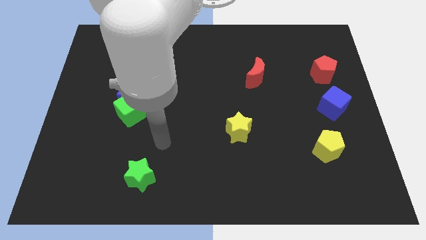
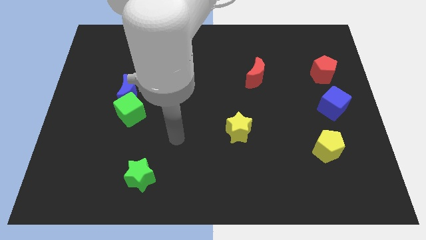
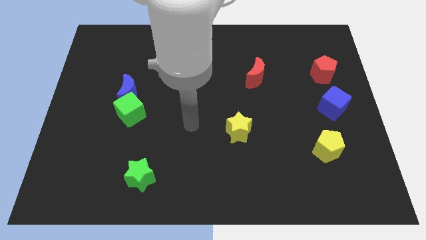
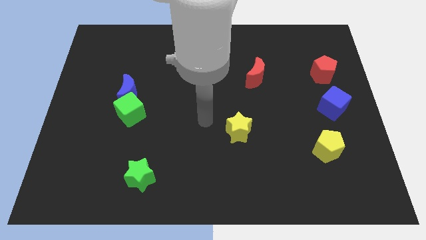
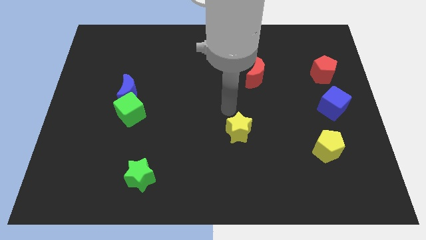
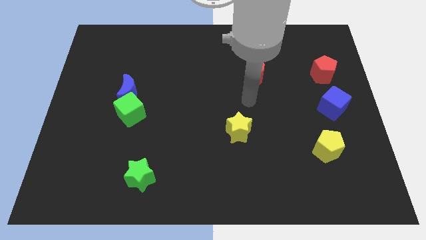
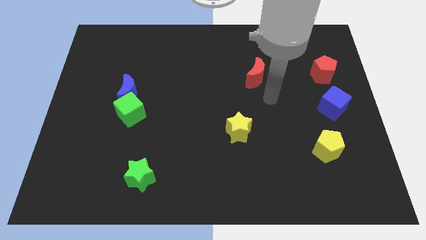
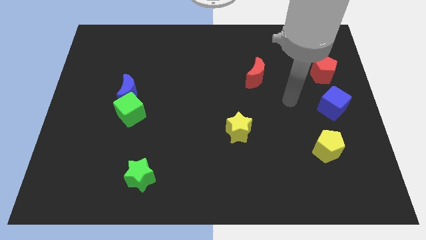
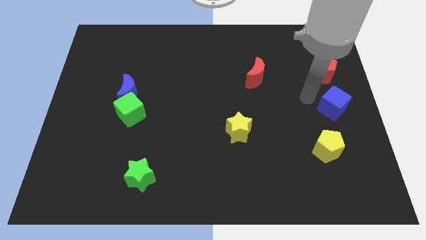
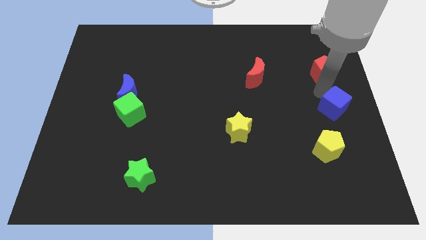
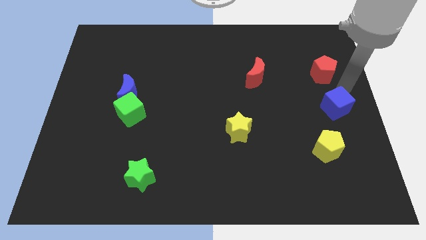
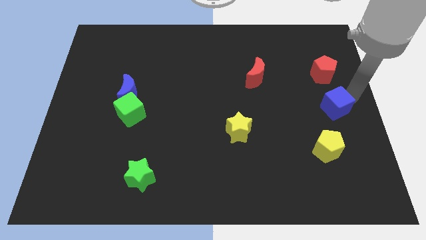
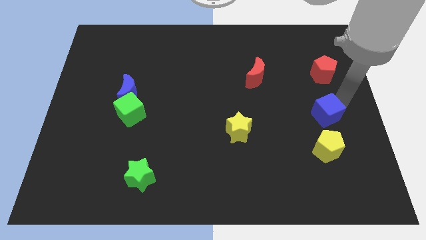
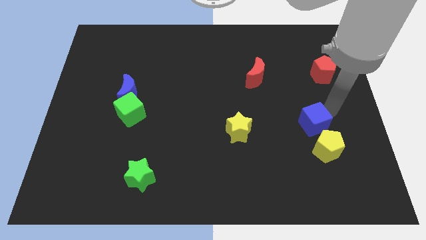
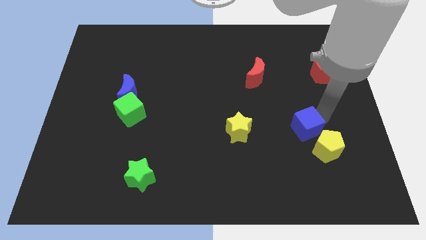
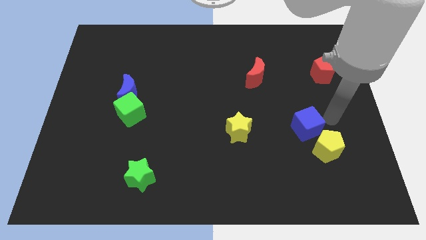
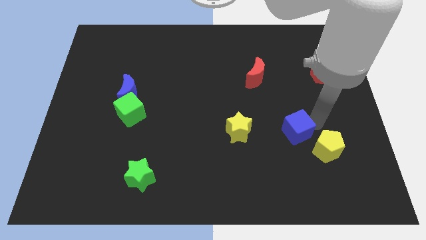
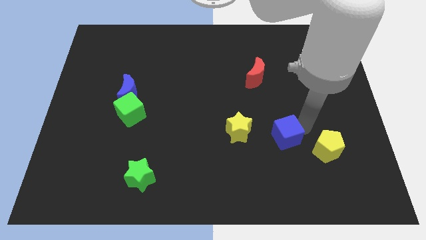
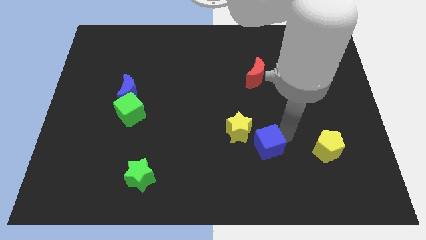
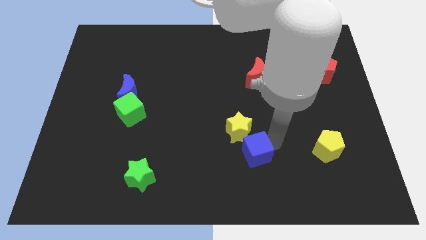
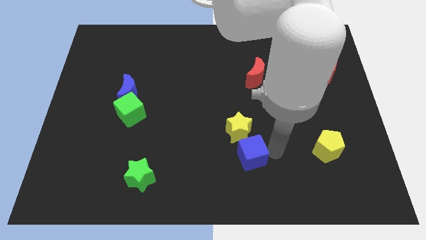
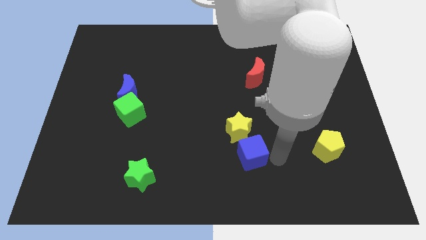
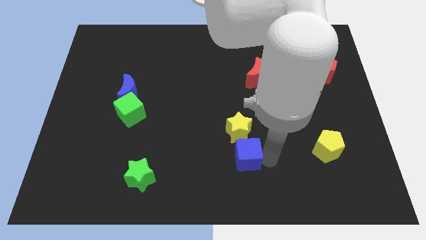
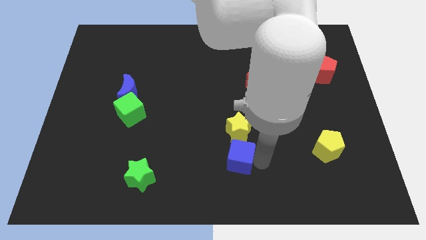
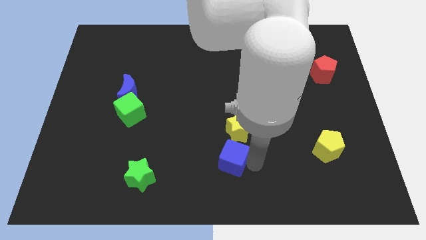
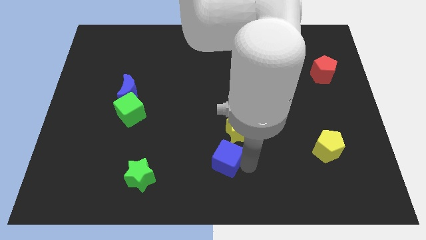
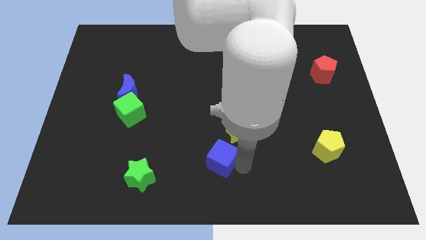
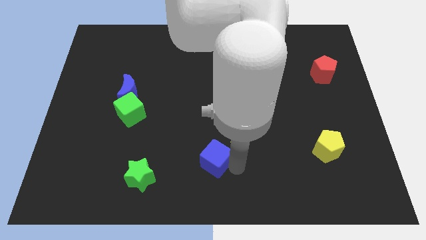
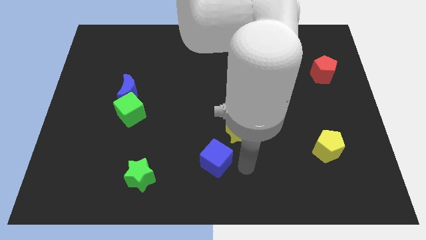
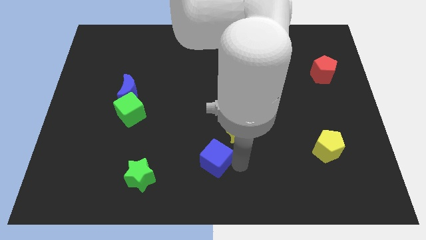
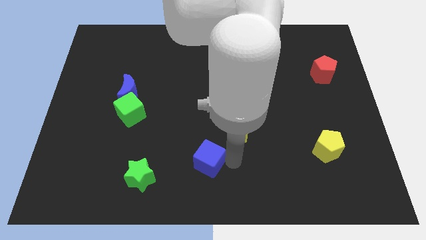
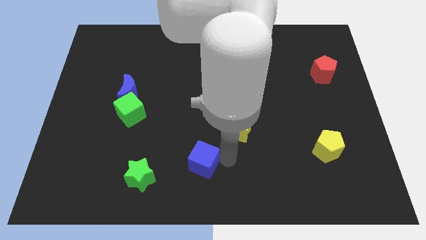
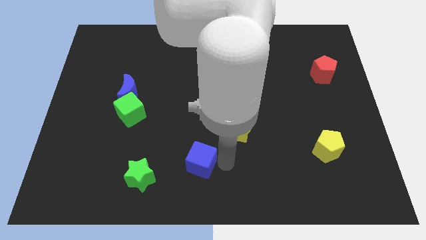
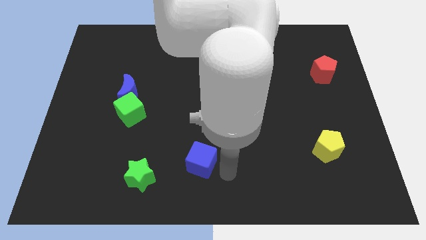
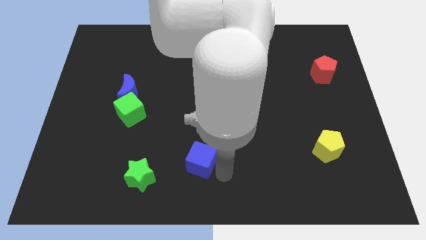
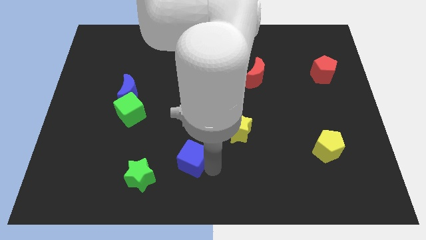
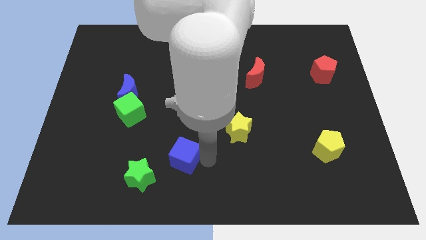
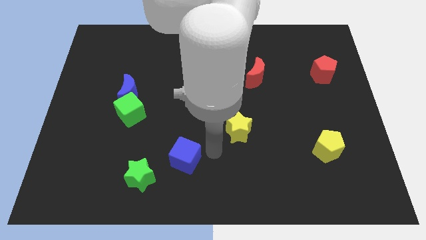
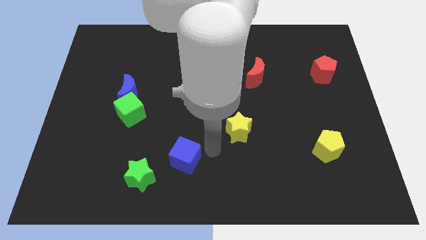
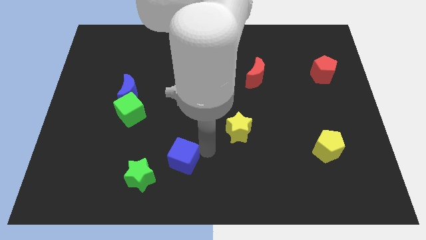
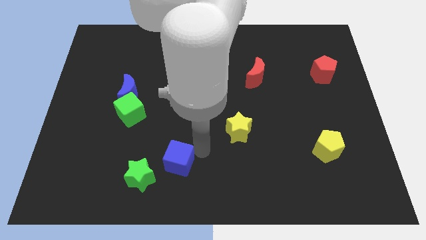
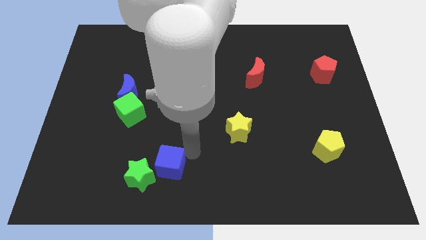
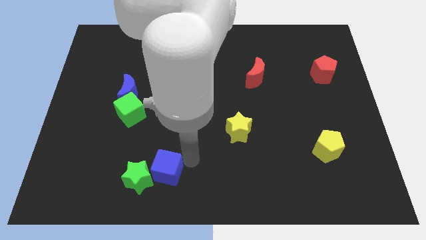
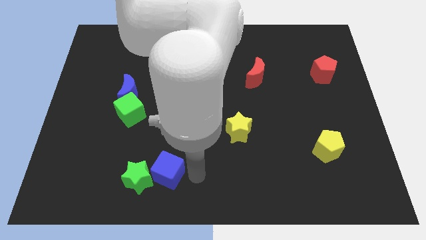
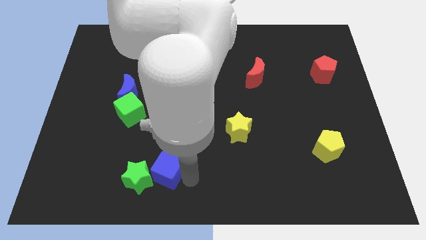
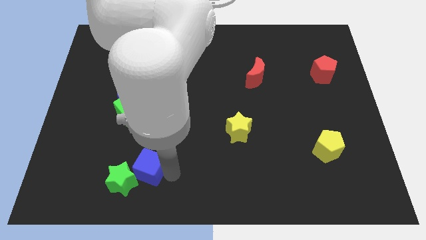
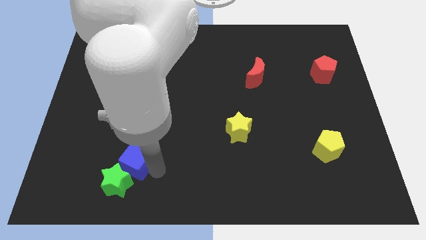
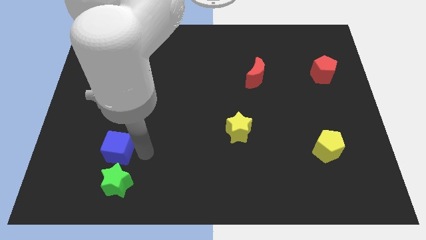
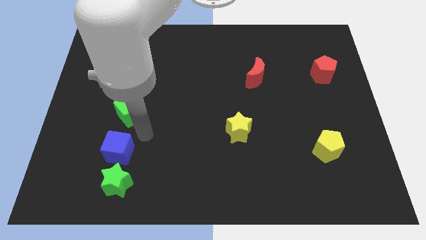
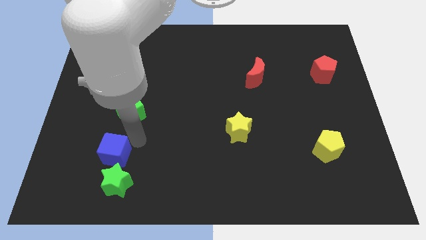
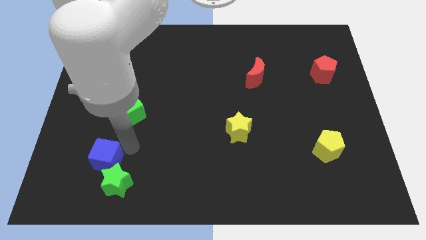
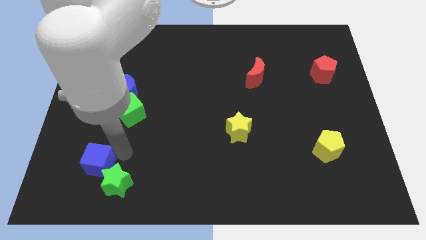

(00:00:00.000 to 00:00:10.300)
push the blue cube left of the green star

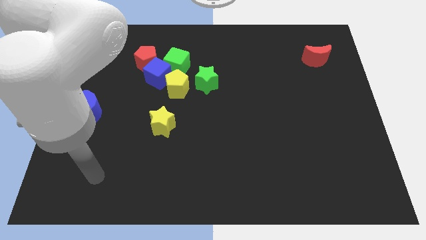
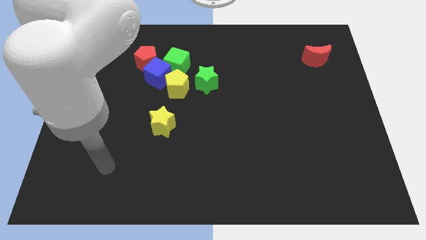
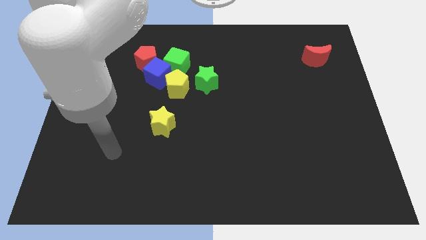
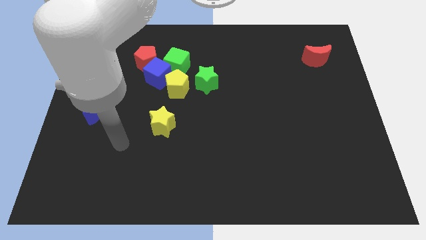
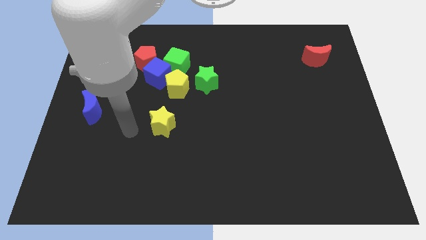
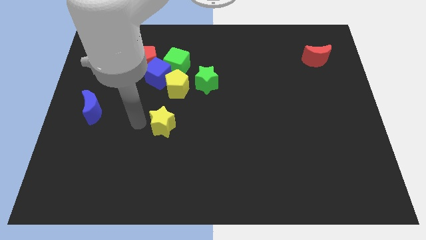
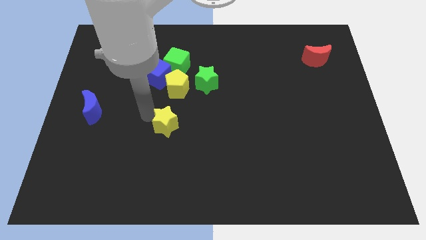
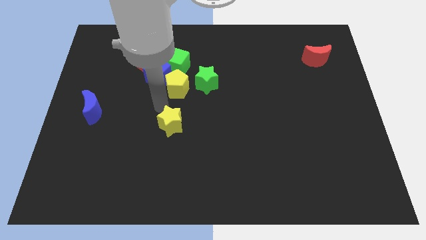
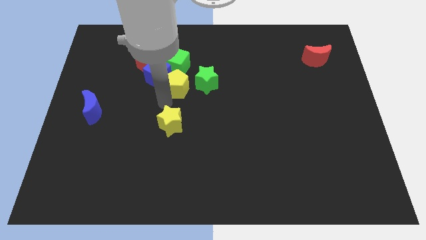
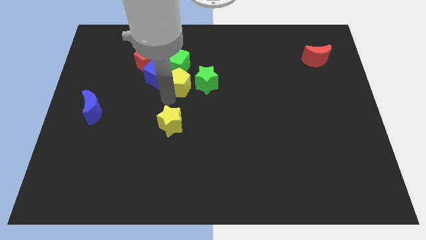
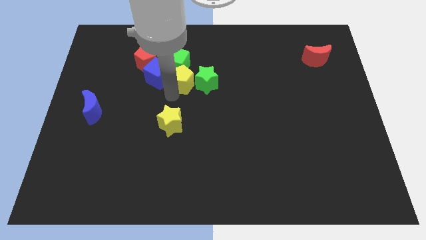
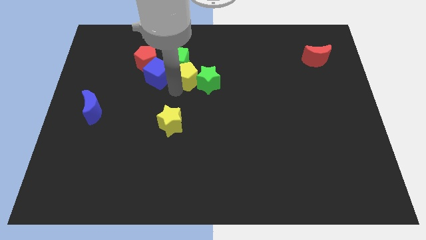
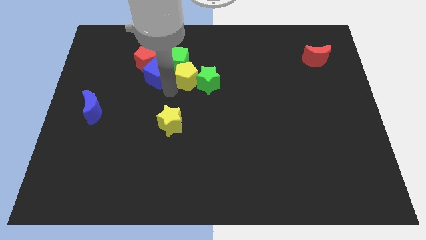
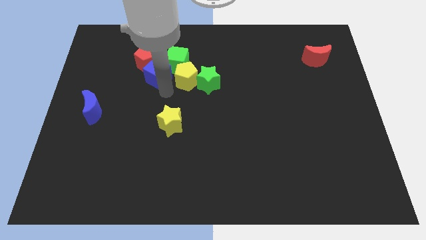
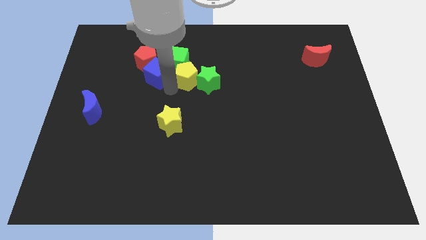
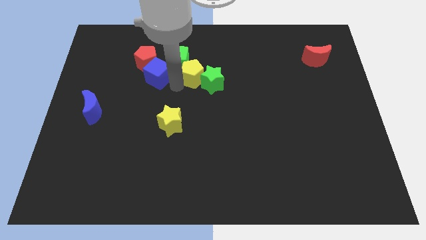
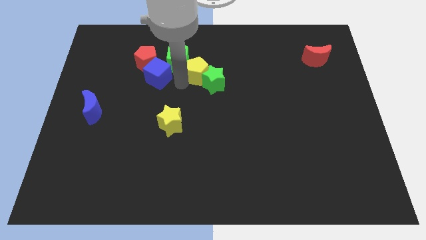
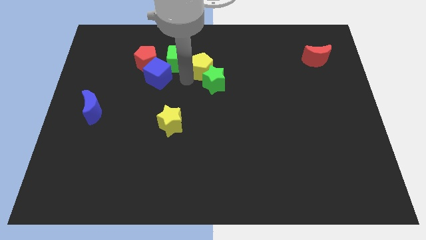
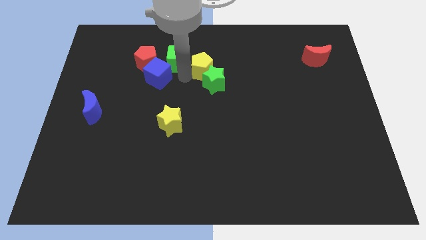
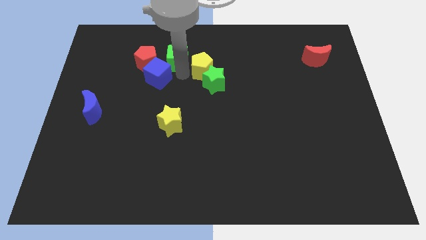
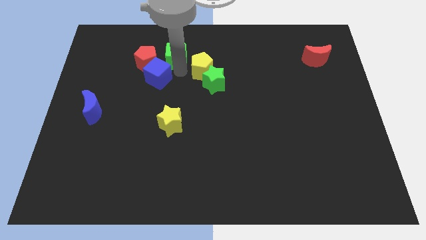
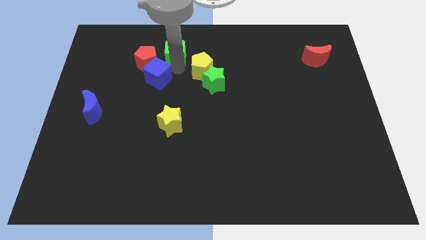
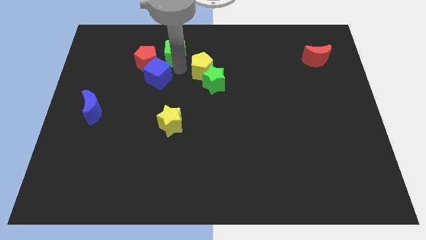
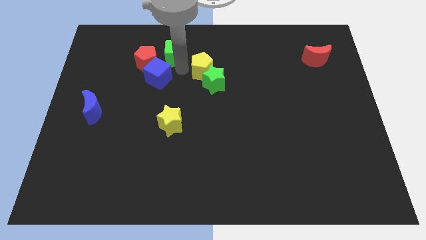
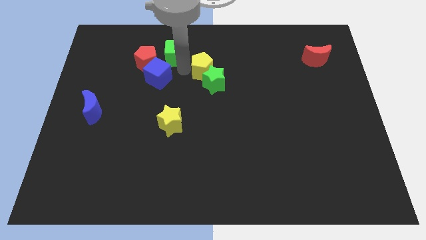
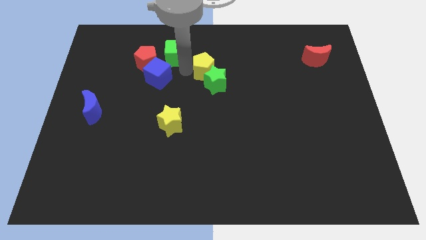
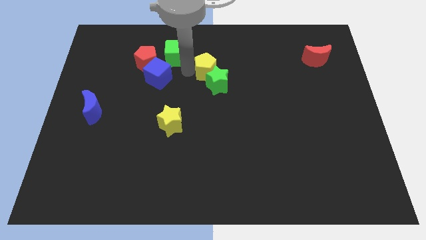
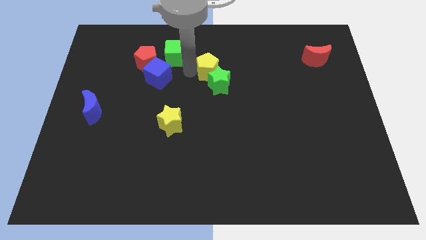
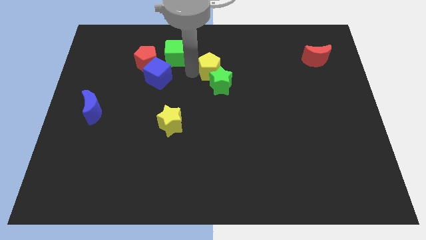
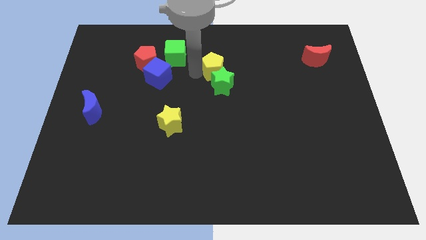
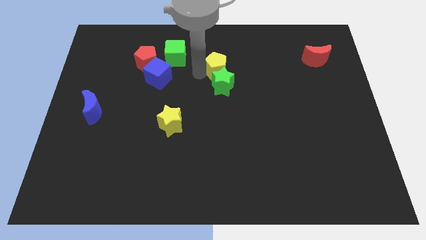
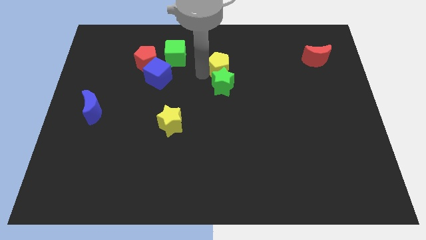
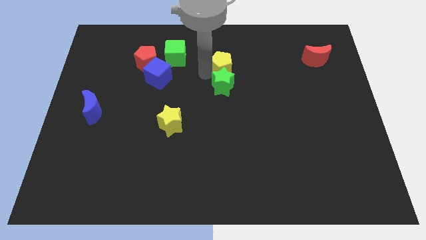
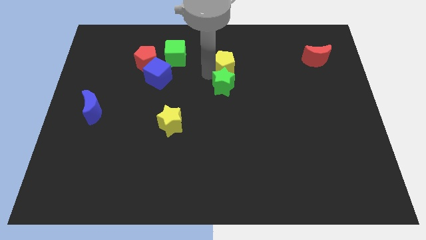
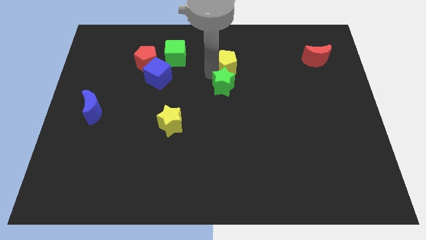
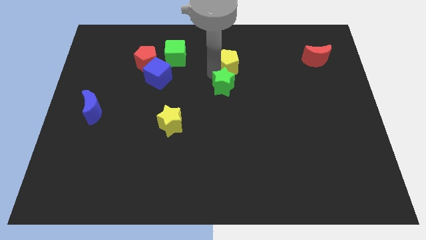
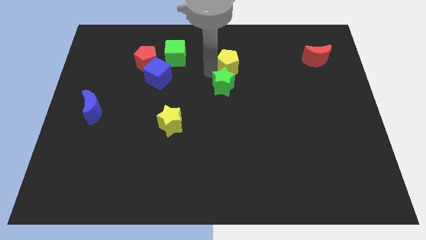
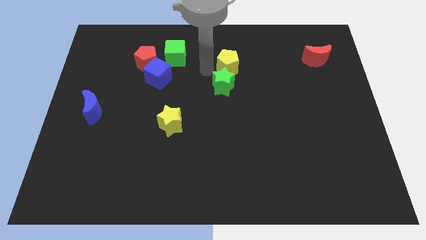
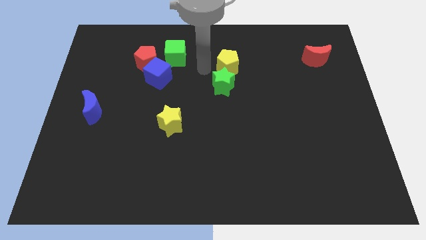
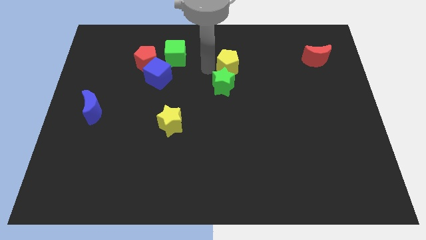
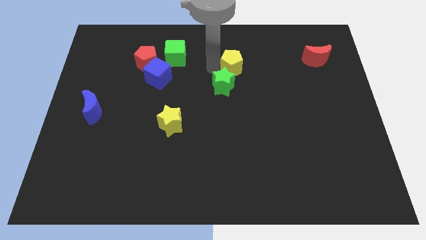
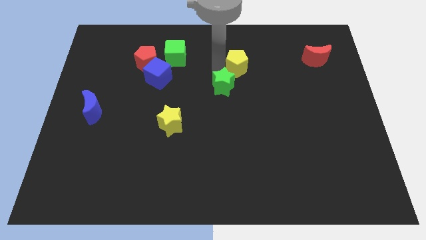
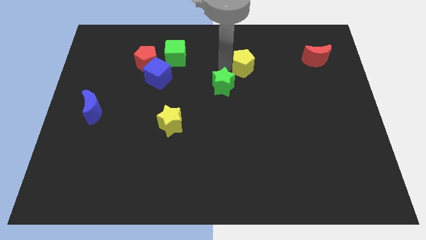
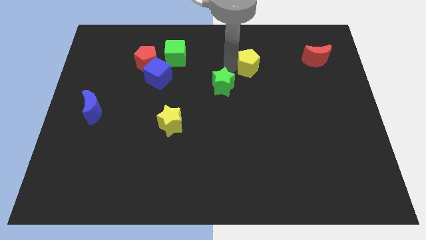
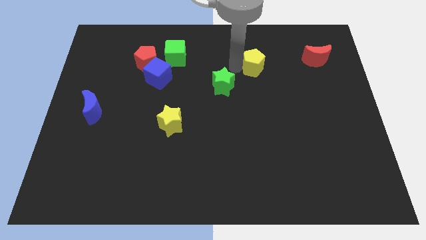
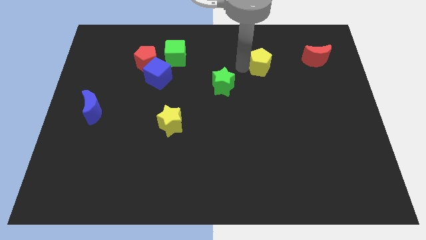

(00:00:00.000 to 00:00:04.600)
push the yellow pentagon to the left of the red moon
